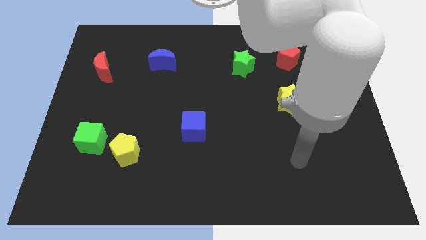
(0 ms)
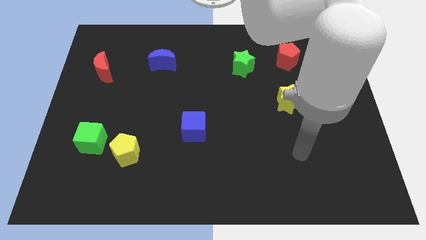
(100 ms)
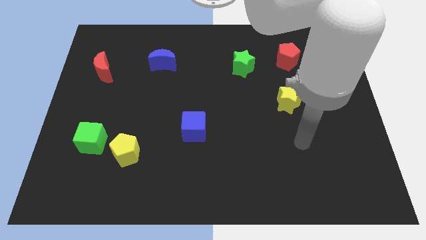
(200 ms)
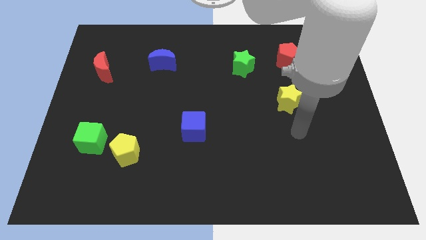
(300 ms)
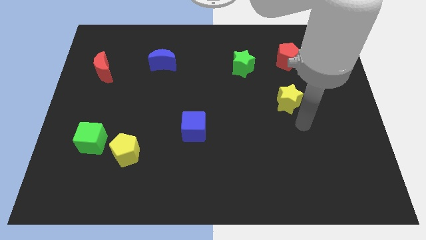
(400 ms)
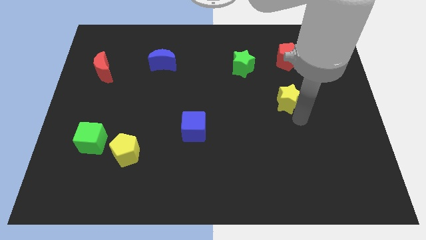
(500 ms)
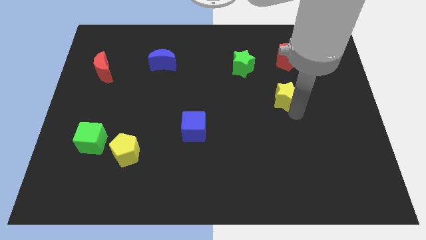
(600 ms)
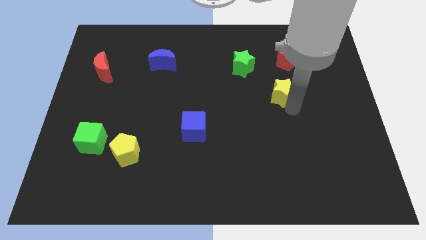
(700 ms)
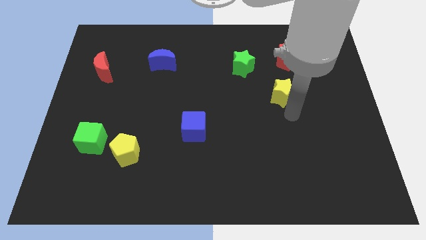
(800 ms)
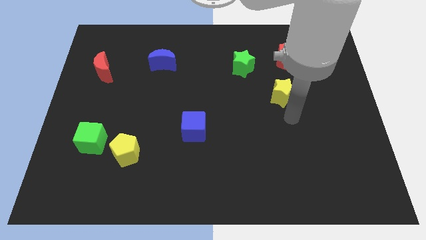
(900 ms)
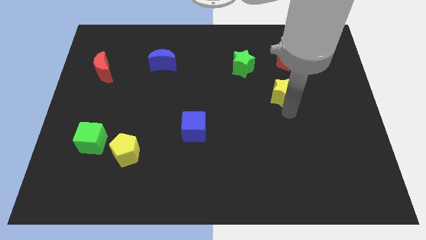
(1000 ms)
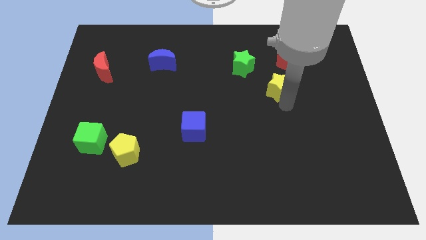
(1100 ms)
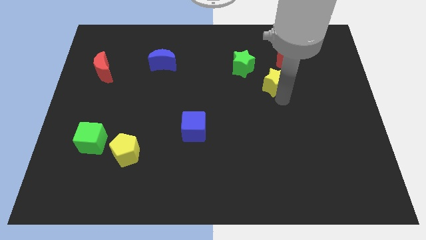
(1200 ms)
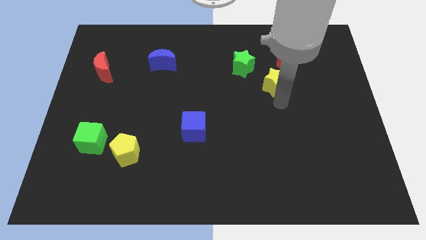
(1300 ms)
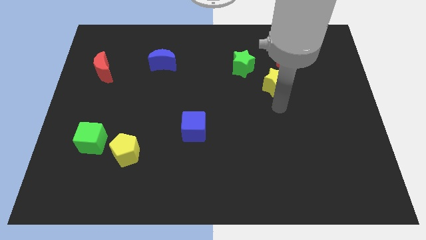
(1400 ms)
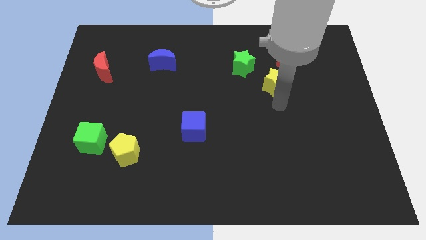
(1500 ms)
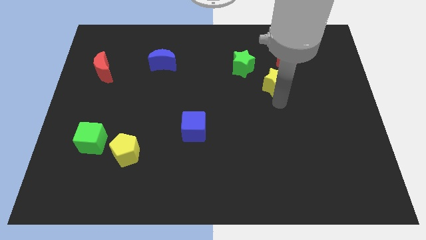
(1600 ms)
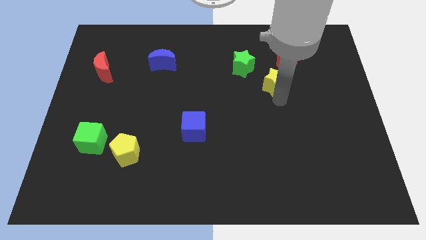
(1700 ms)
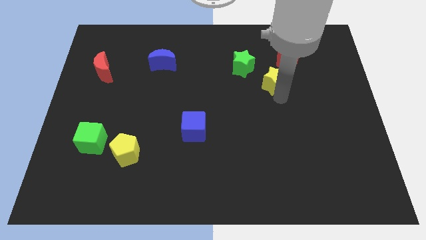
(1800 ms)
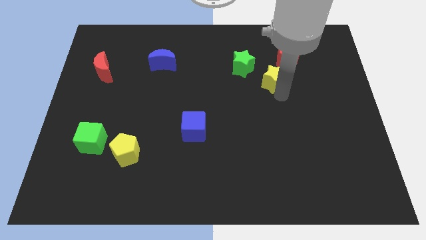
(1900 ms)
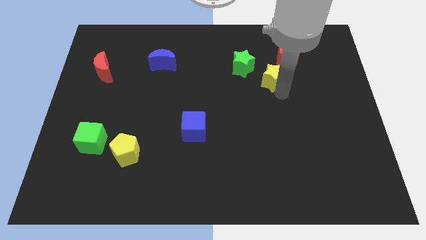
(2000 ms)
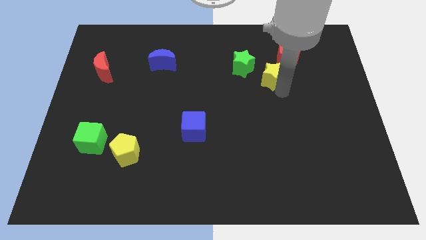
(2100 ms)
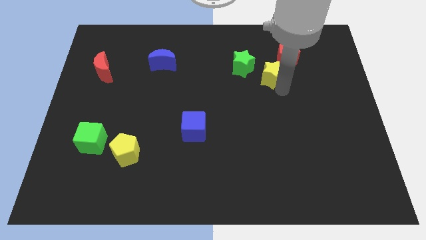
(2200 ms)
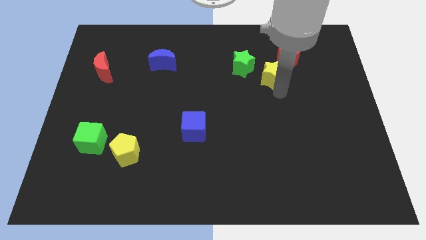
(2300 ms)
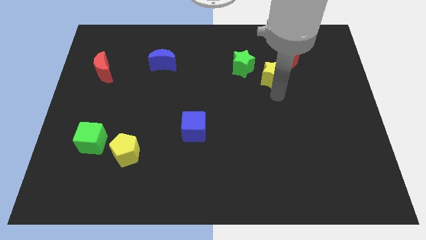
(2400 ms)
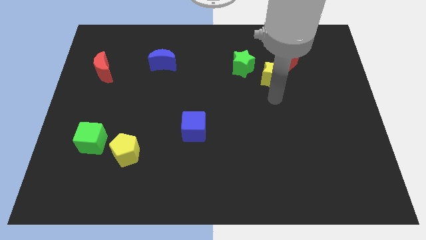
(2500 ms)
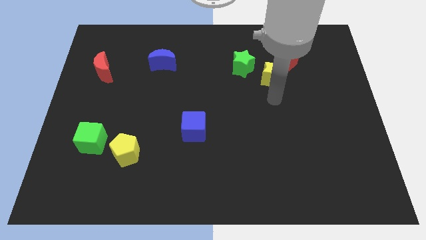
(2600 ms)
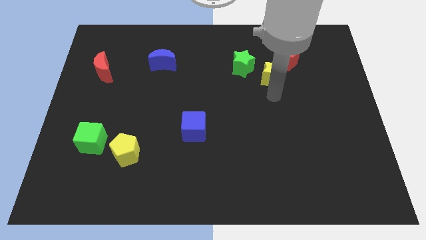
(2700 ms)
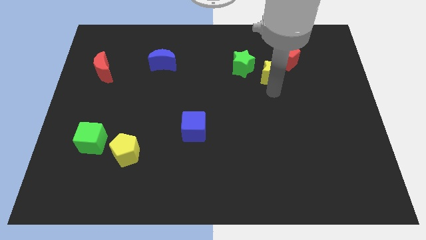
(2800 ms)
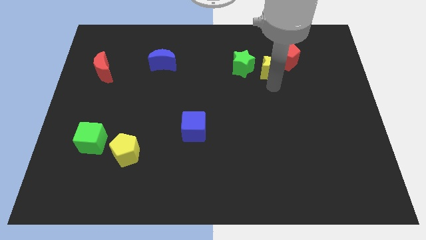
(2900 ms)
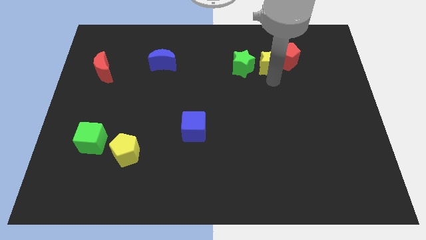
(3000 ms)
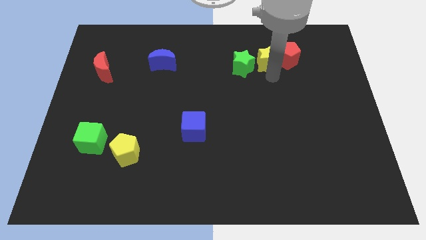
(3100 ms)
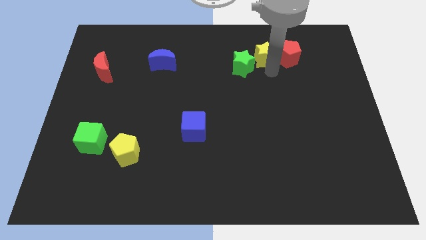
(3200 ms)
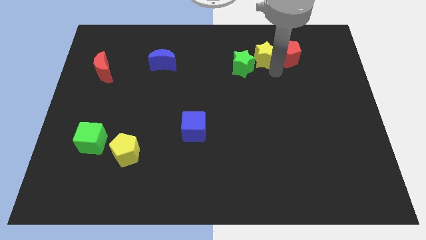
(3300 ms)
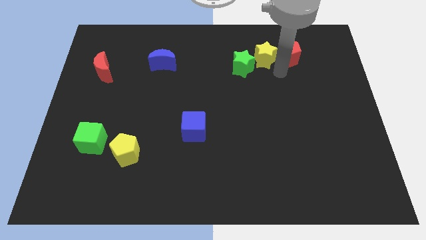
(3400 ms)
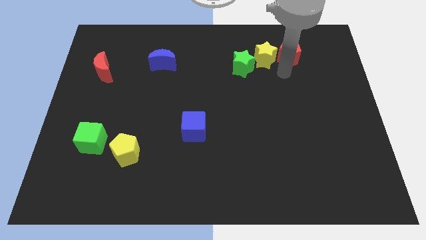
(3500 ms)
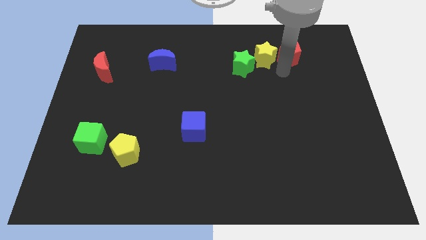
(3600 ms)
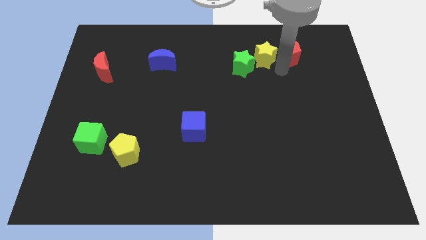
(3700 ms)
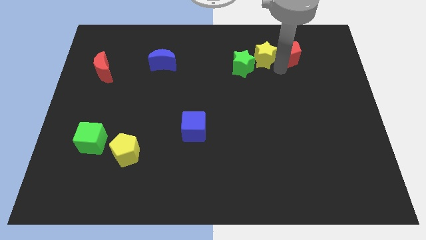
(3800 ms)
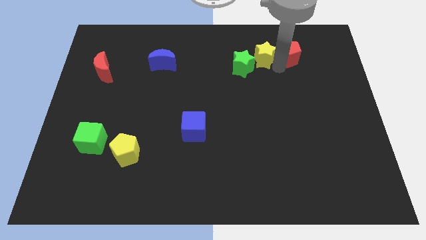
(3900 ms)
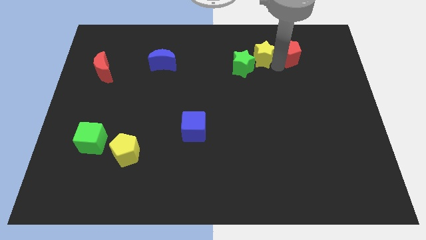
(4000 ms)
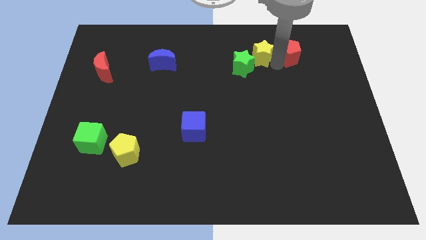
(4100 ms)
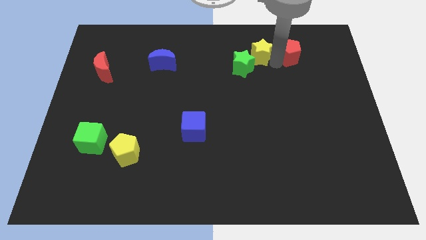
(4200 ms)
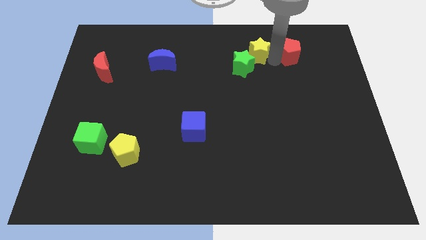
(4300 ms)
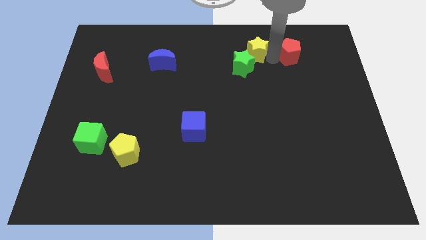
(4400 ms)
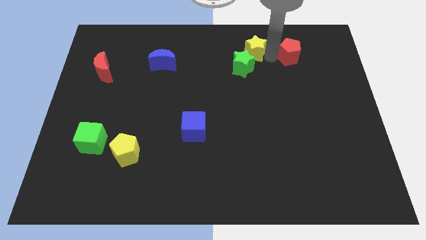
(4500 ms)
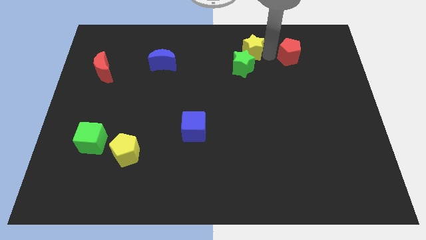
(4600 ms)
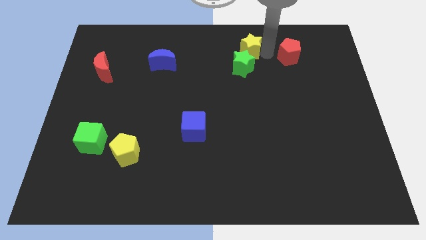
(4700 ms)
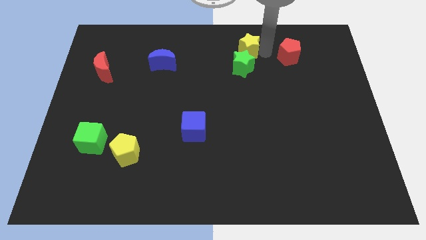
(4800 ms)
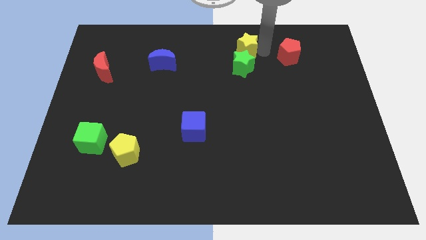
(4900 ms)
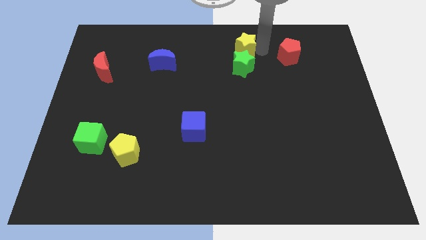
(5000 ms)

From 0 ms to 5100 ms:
move the yellow star to the towards your base
